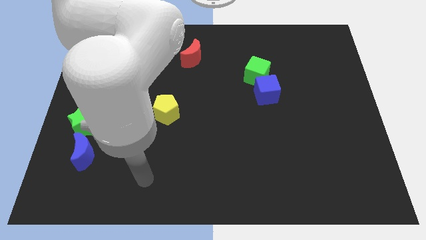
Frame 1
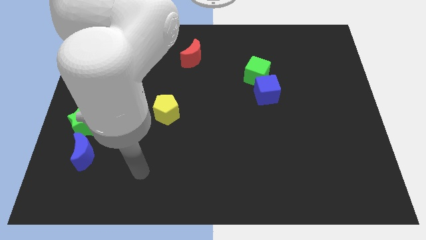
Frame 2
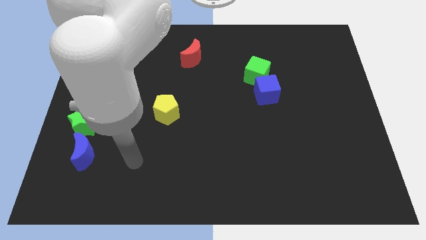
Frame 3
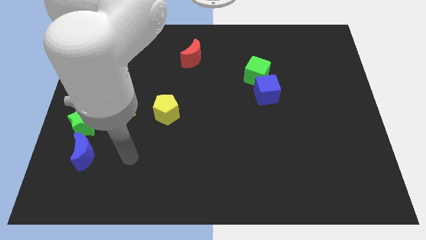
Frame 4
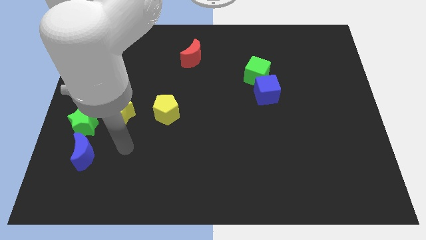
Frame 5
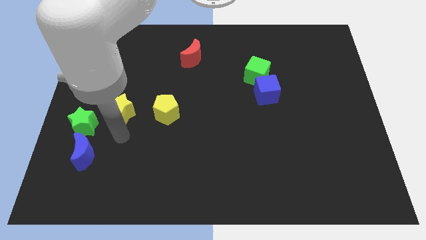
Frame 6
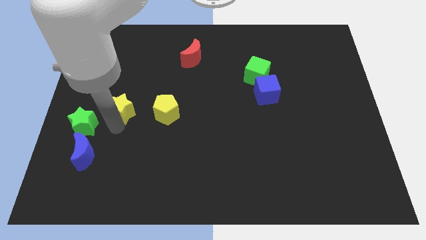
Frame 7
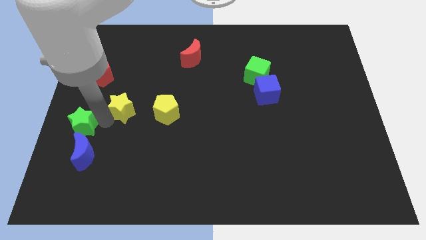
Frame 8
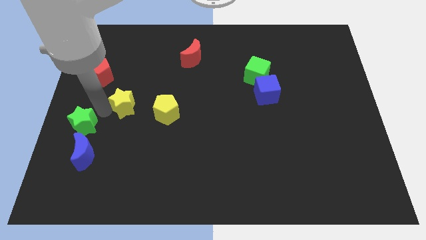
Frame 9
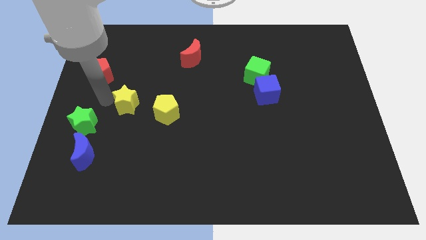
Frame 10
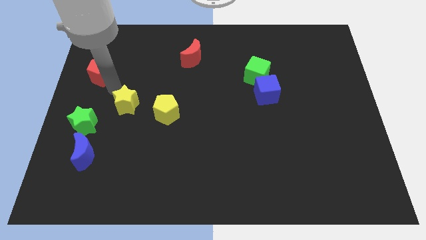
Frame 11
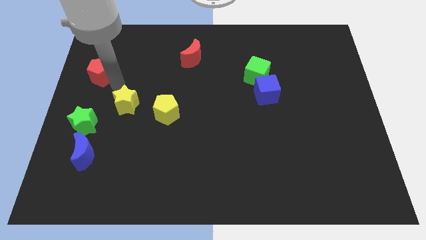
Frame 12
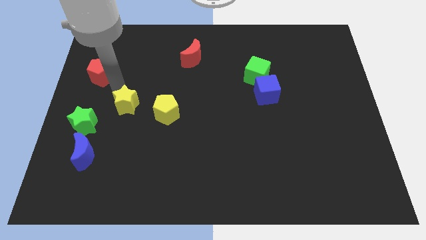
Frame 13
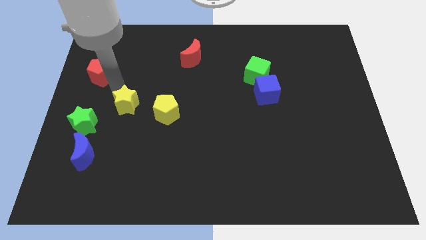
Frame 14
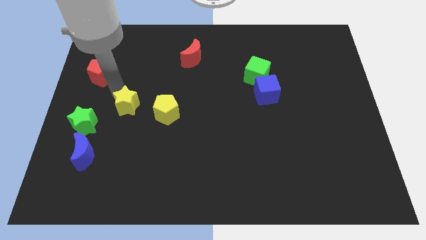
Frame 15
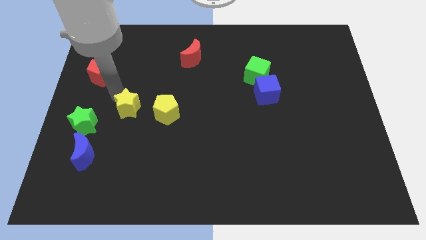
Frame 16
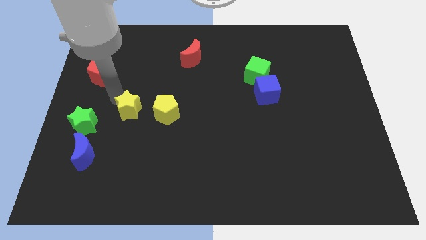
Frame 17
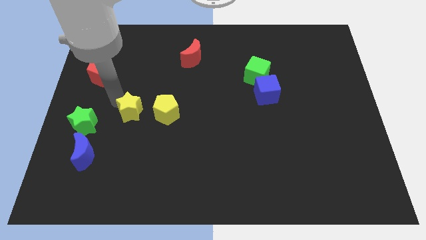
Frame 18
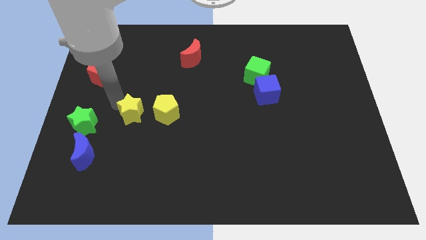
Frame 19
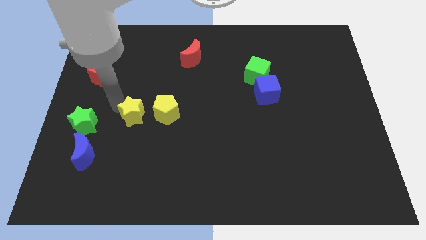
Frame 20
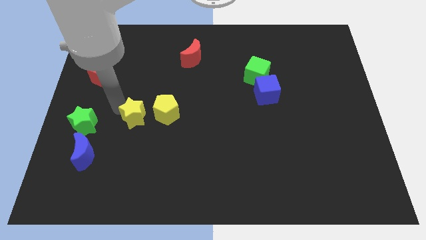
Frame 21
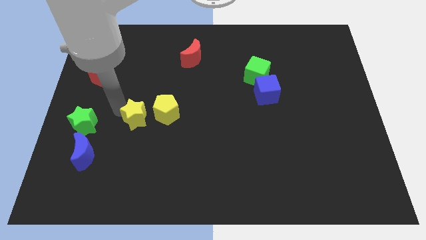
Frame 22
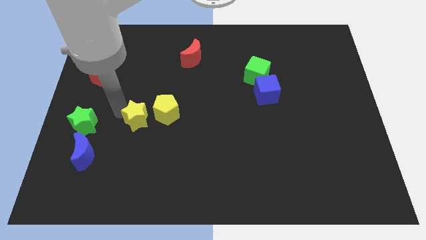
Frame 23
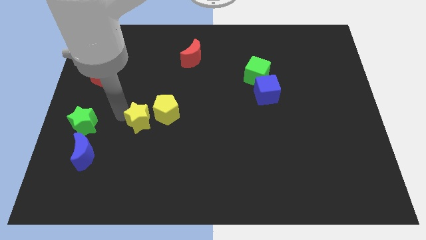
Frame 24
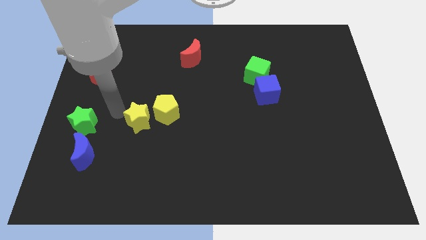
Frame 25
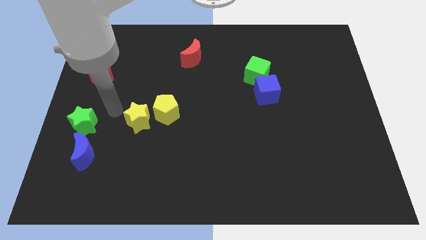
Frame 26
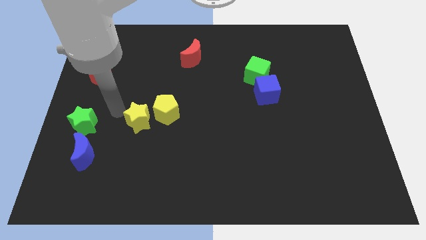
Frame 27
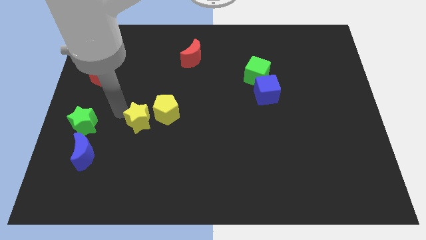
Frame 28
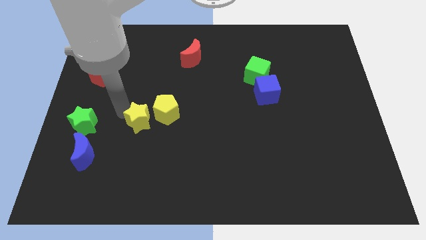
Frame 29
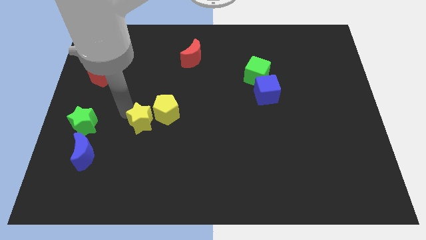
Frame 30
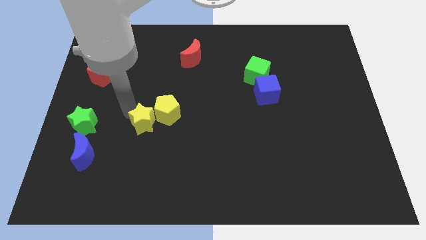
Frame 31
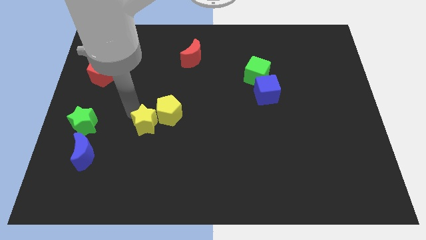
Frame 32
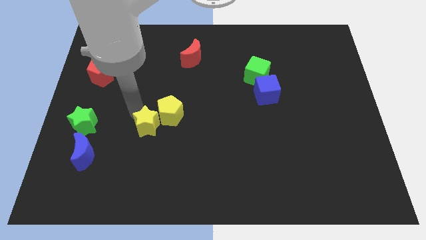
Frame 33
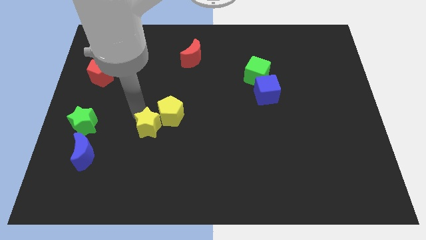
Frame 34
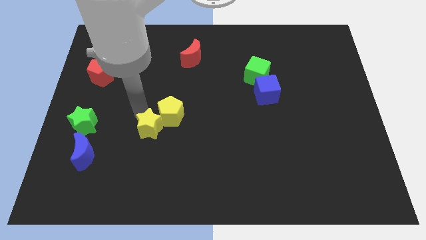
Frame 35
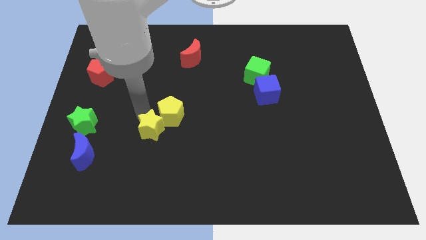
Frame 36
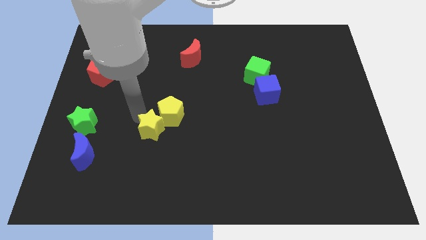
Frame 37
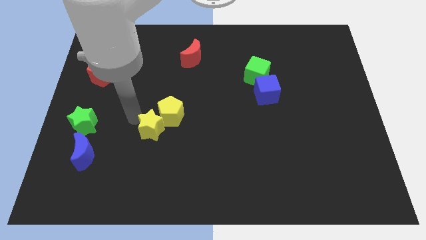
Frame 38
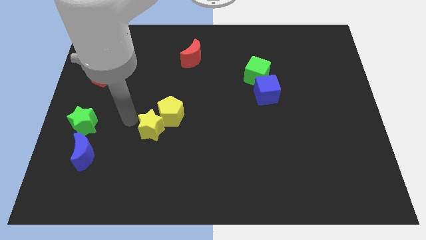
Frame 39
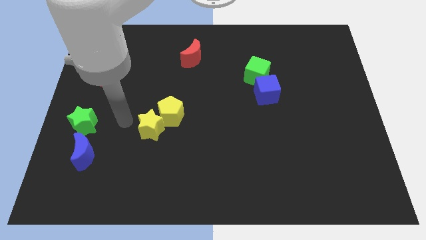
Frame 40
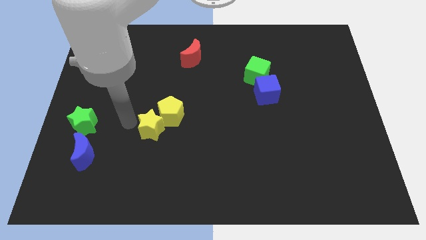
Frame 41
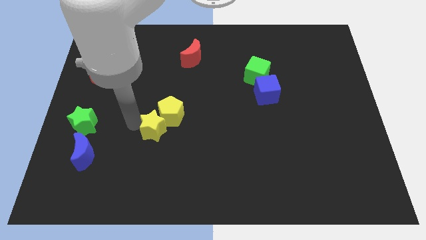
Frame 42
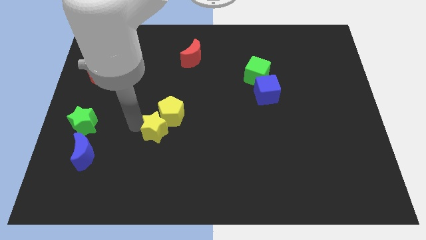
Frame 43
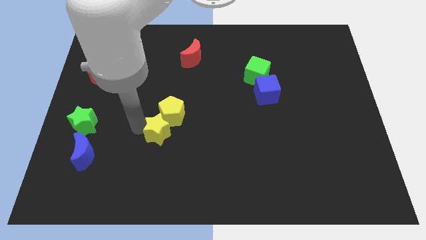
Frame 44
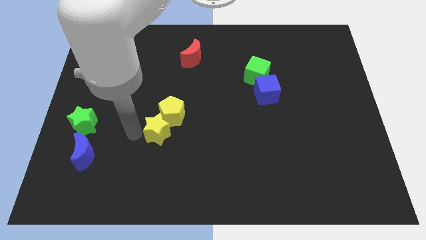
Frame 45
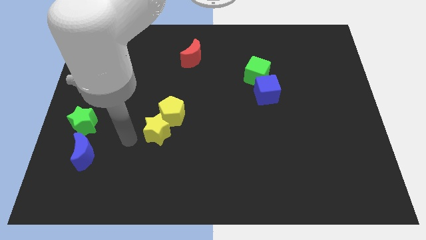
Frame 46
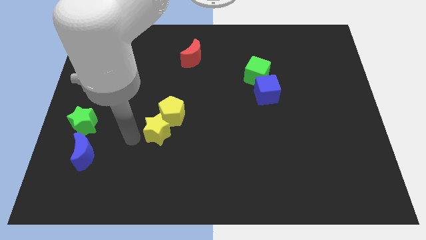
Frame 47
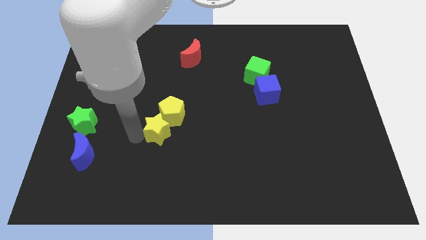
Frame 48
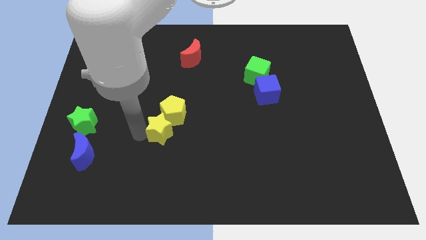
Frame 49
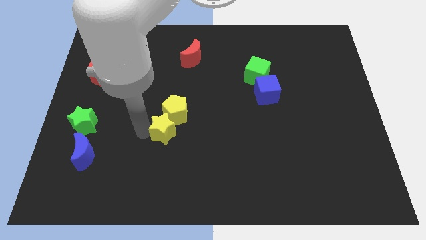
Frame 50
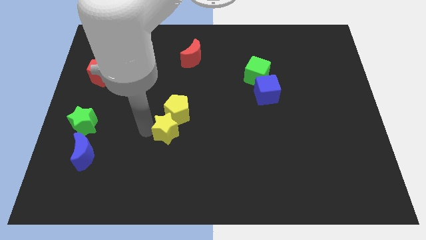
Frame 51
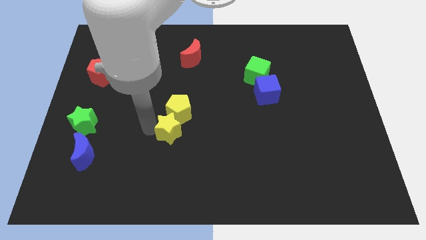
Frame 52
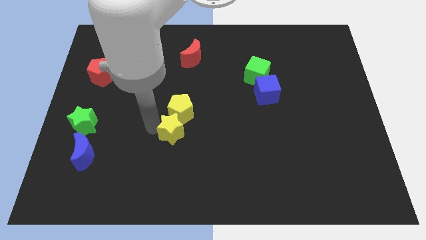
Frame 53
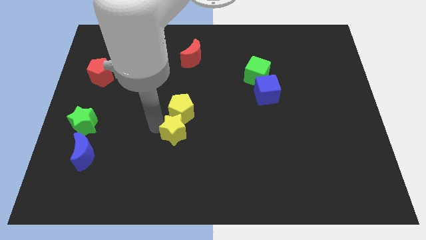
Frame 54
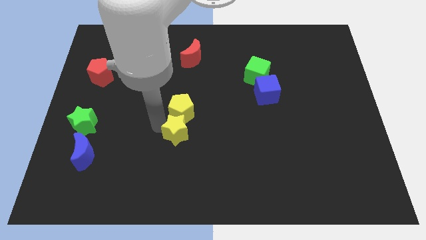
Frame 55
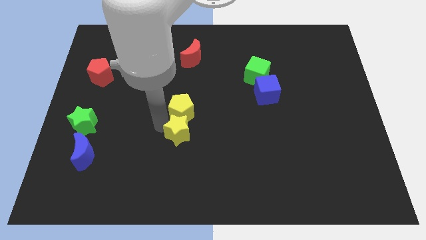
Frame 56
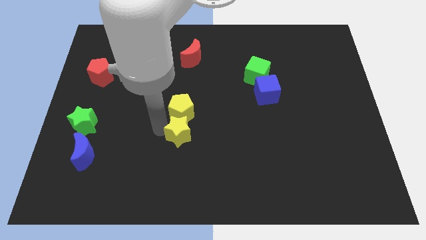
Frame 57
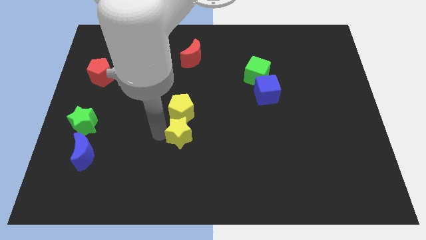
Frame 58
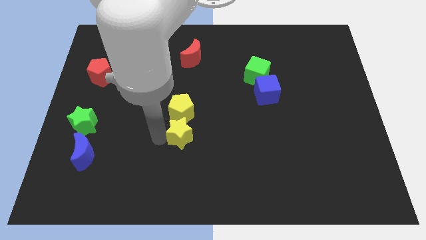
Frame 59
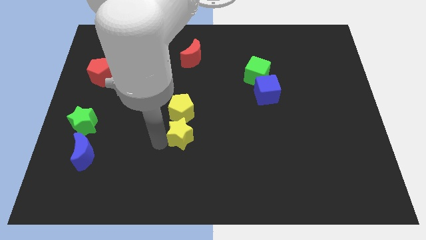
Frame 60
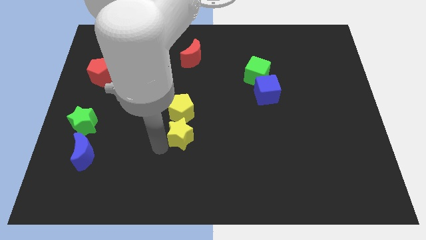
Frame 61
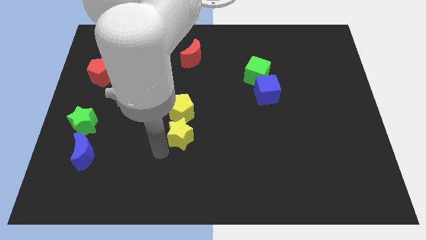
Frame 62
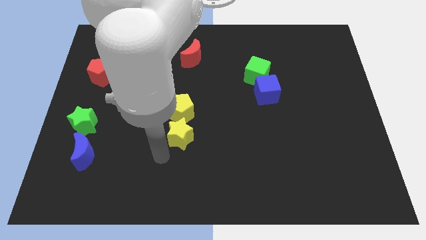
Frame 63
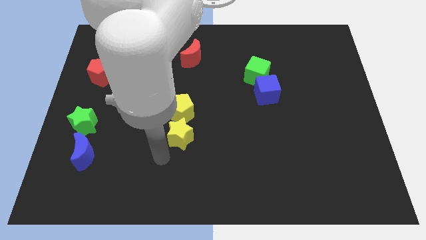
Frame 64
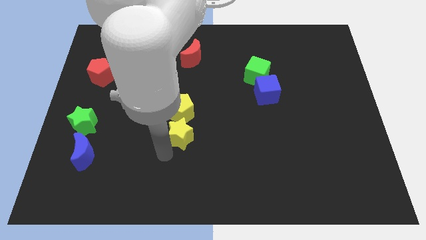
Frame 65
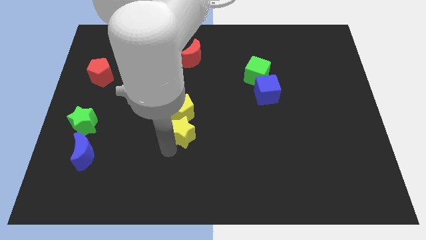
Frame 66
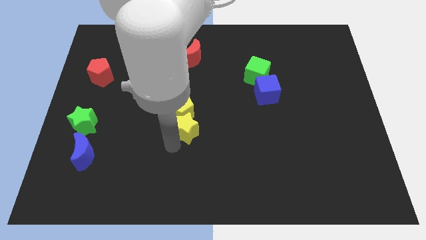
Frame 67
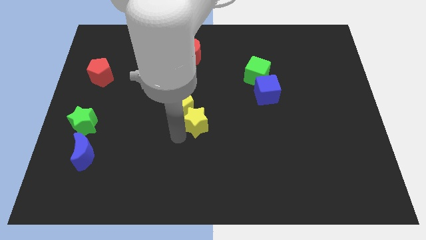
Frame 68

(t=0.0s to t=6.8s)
move the yellow star right of the yellow pentagon

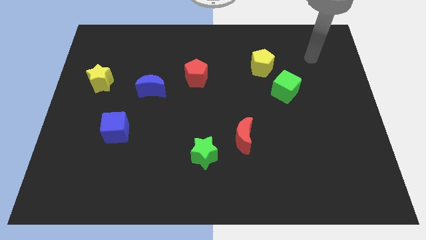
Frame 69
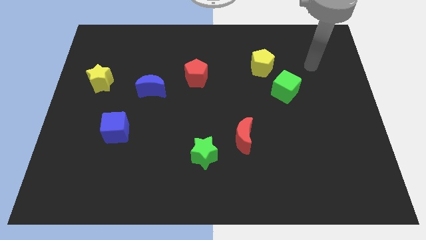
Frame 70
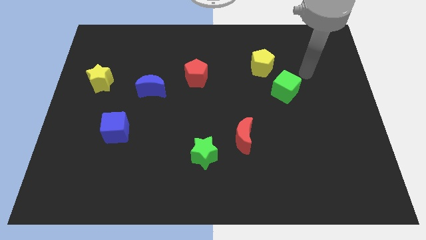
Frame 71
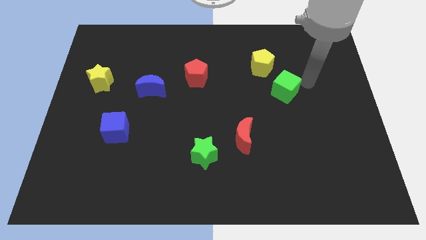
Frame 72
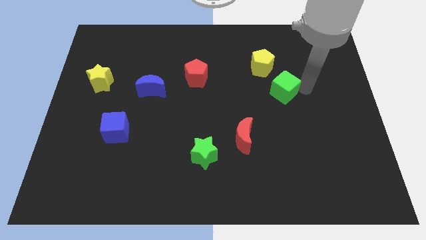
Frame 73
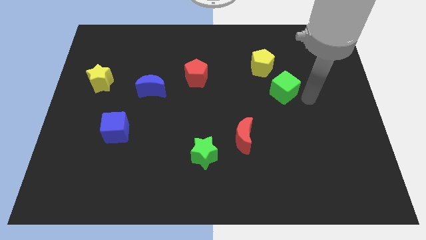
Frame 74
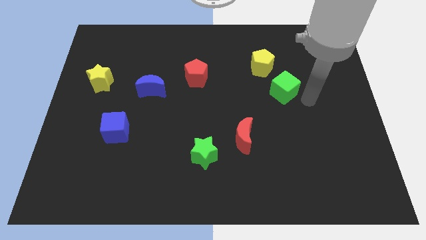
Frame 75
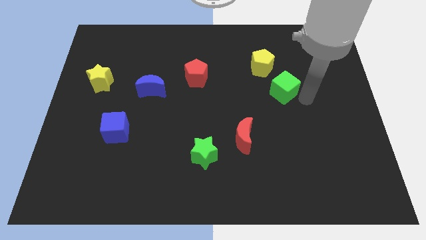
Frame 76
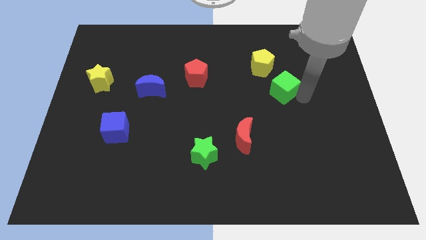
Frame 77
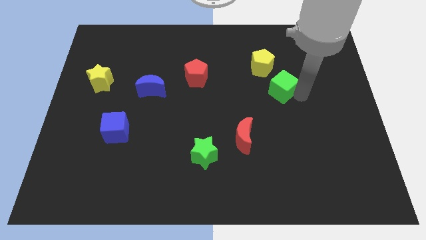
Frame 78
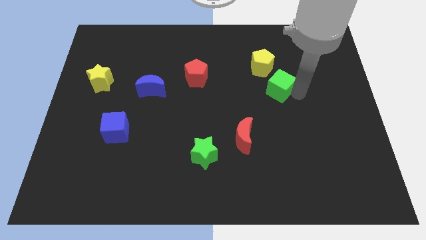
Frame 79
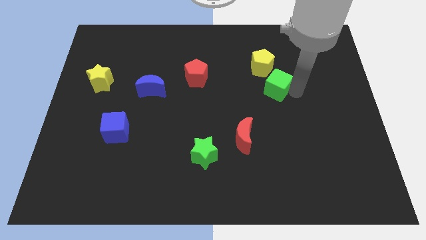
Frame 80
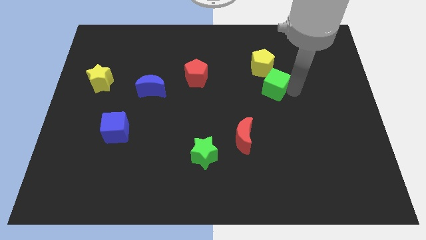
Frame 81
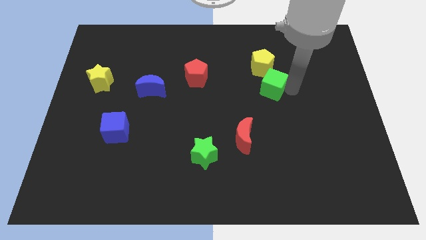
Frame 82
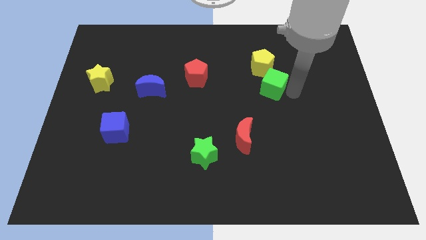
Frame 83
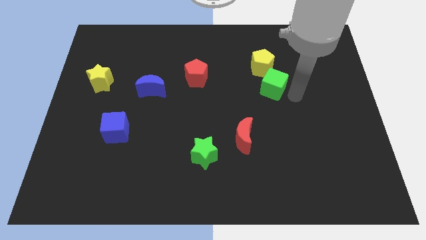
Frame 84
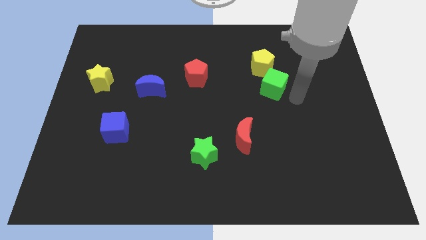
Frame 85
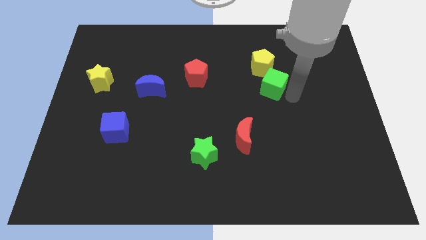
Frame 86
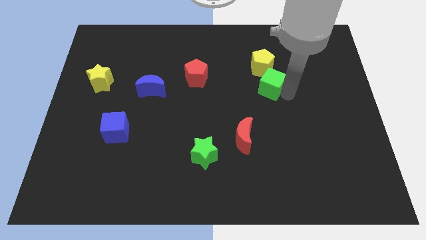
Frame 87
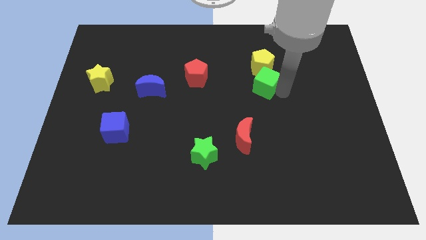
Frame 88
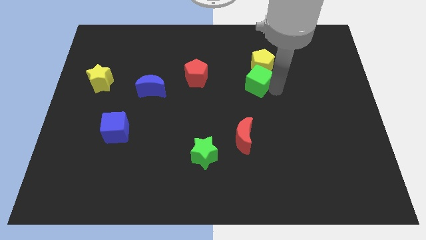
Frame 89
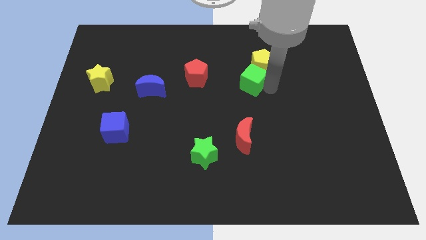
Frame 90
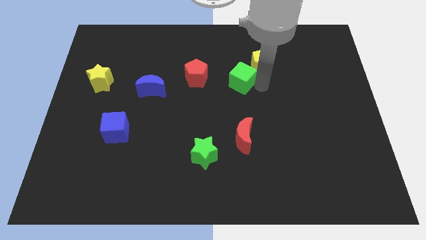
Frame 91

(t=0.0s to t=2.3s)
slide the green cube to the left of the yellow pentagon
